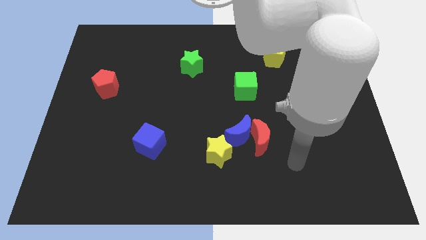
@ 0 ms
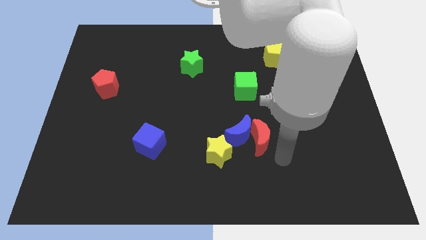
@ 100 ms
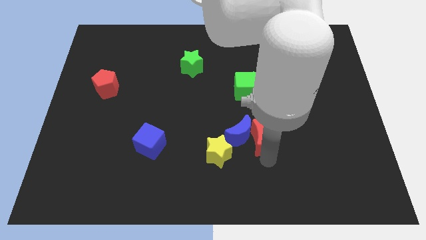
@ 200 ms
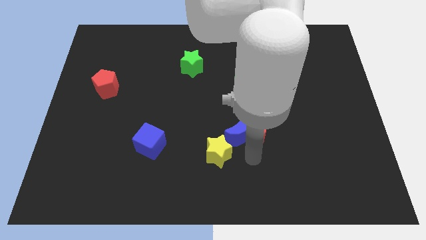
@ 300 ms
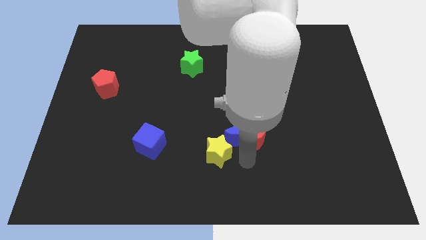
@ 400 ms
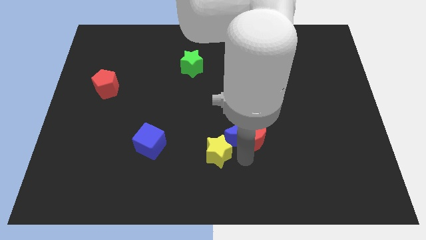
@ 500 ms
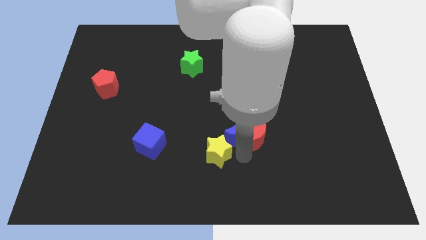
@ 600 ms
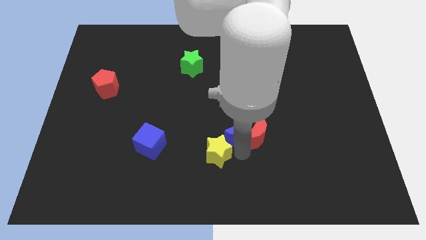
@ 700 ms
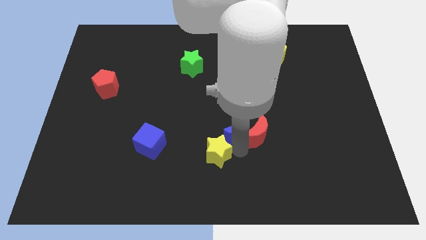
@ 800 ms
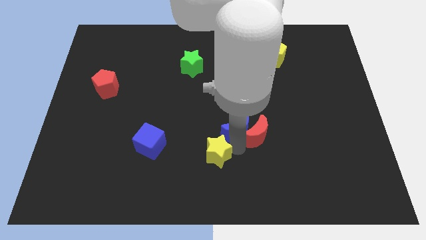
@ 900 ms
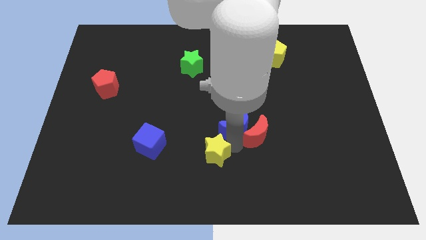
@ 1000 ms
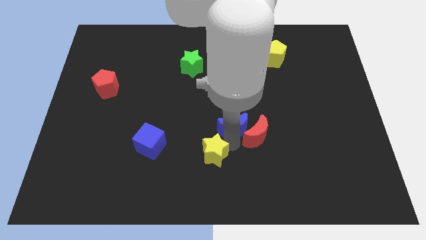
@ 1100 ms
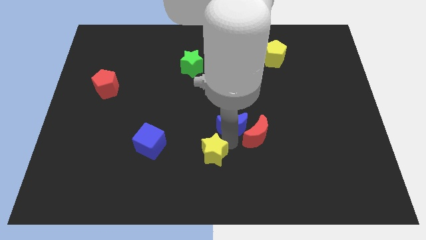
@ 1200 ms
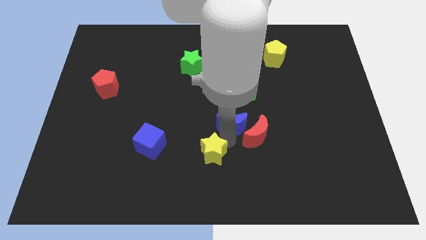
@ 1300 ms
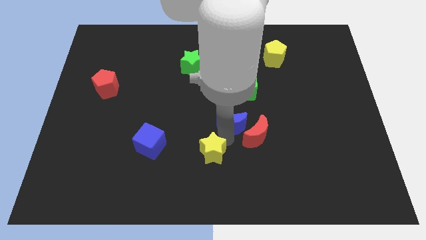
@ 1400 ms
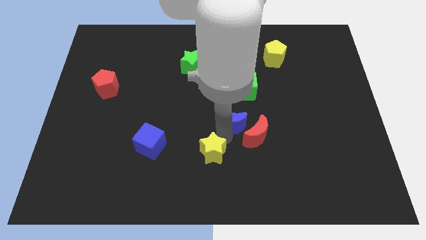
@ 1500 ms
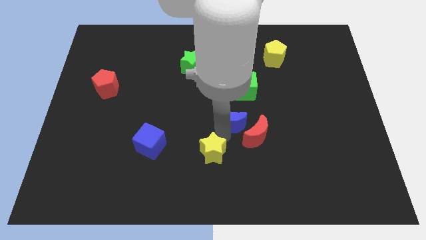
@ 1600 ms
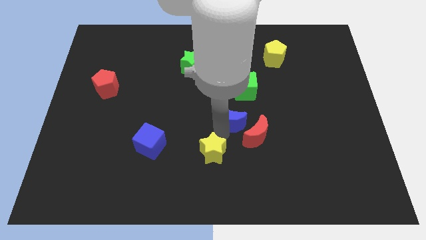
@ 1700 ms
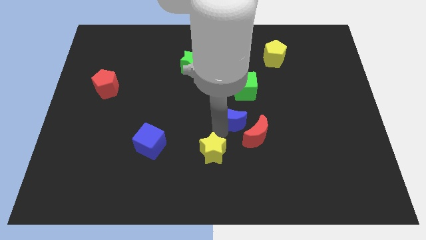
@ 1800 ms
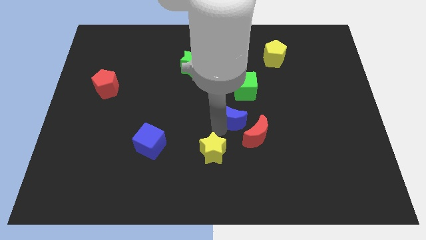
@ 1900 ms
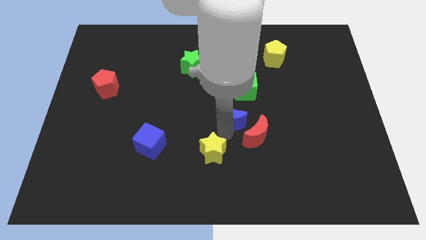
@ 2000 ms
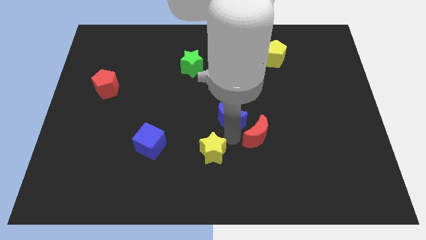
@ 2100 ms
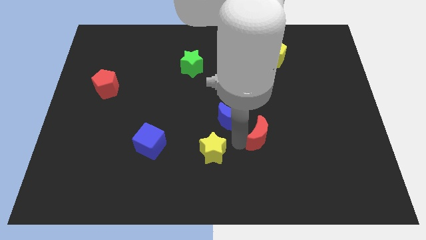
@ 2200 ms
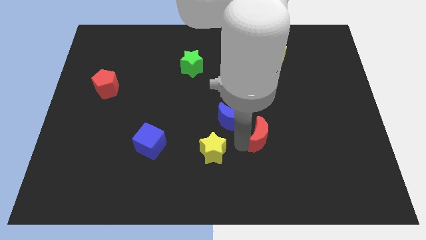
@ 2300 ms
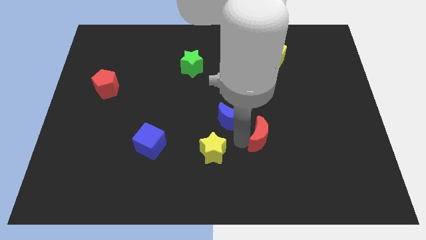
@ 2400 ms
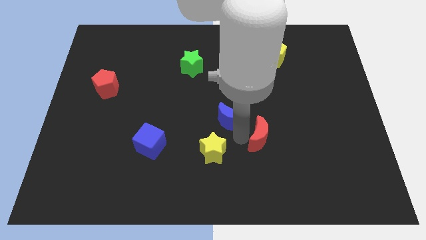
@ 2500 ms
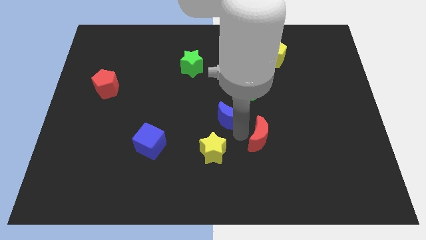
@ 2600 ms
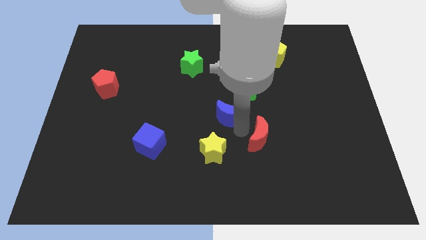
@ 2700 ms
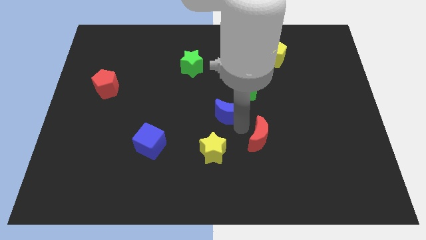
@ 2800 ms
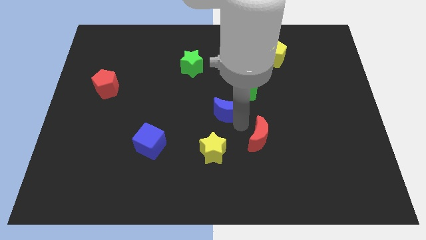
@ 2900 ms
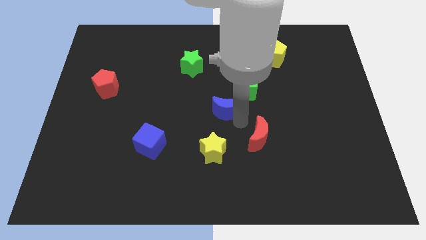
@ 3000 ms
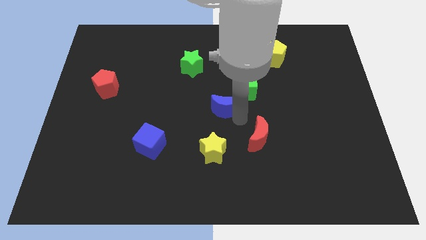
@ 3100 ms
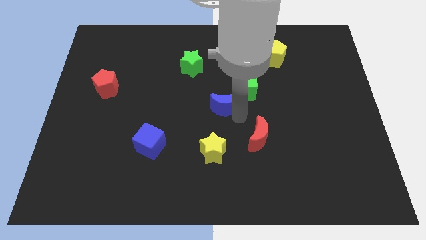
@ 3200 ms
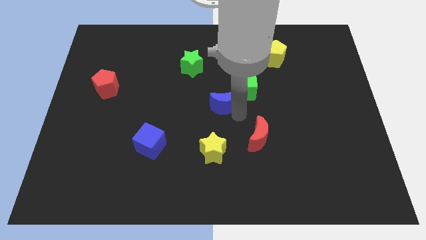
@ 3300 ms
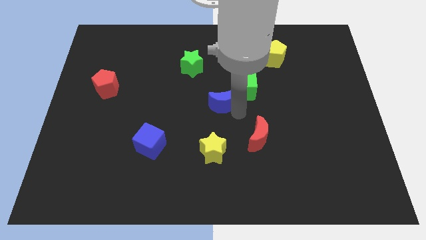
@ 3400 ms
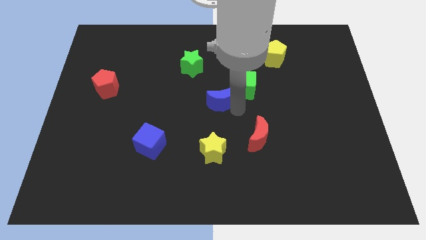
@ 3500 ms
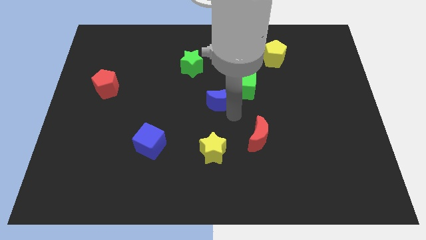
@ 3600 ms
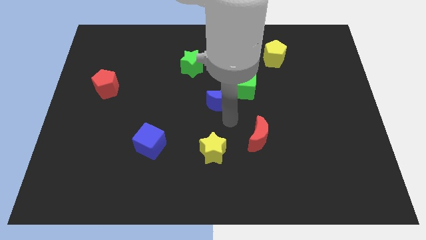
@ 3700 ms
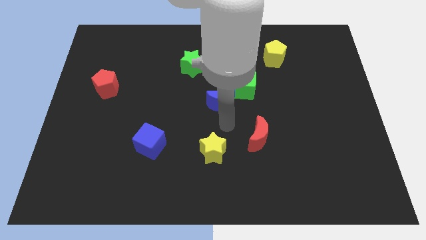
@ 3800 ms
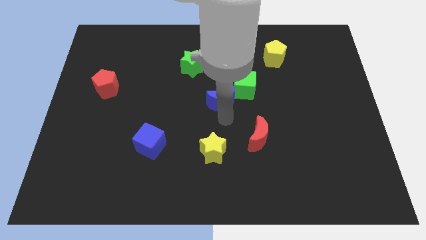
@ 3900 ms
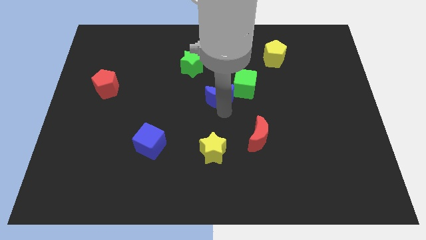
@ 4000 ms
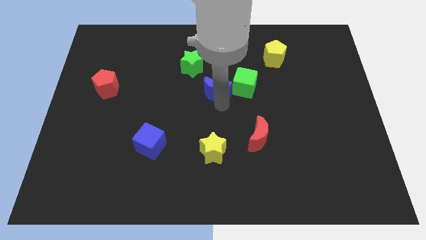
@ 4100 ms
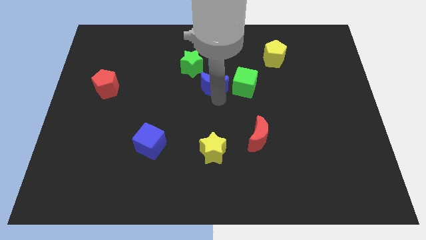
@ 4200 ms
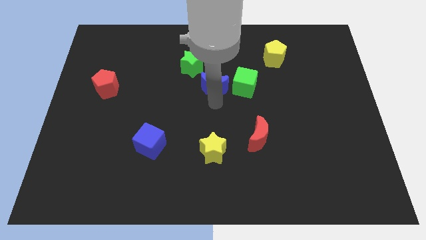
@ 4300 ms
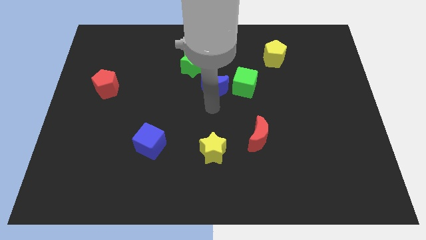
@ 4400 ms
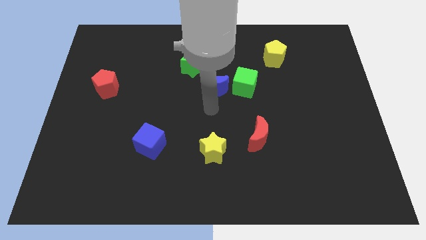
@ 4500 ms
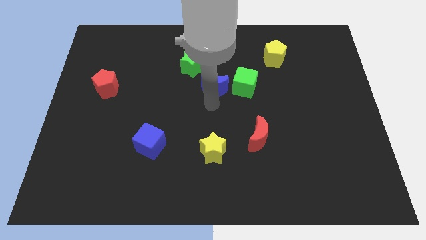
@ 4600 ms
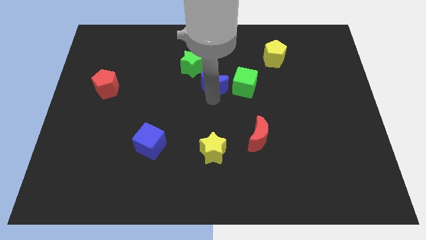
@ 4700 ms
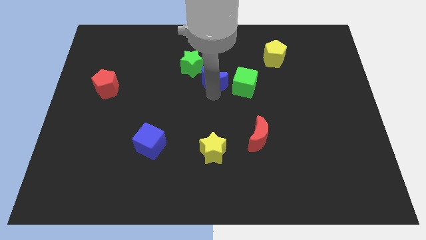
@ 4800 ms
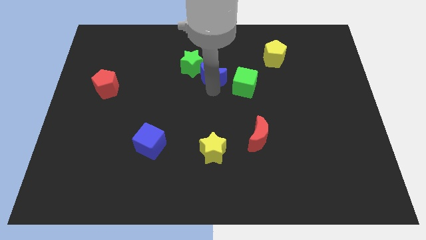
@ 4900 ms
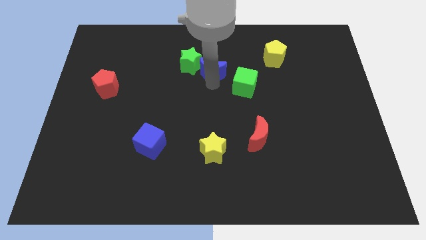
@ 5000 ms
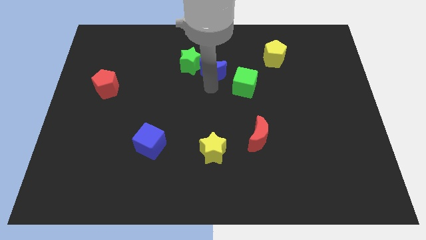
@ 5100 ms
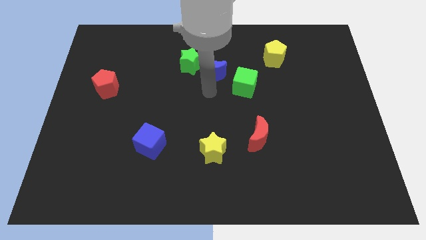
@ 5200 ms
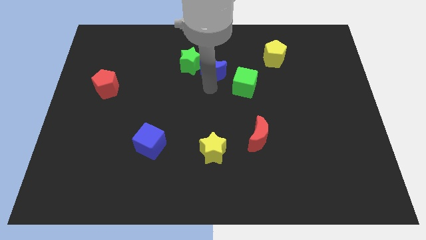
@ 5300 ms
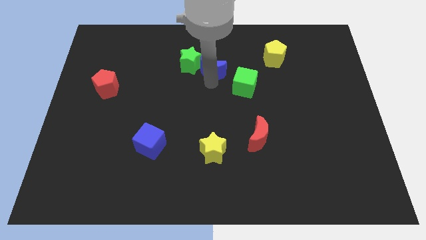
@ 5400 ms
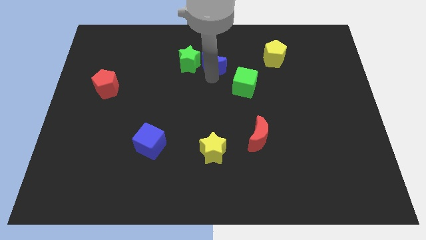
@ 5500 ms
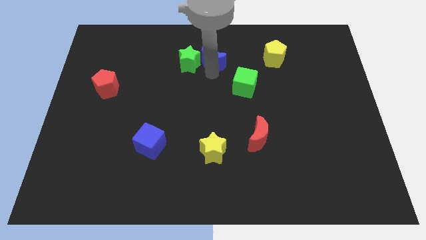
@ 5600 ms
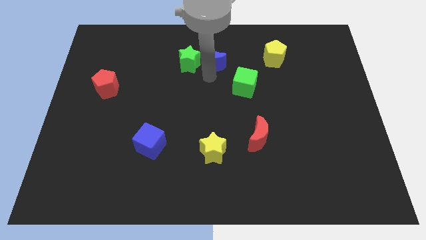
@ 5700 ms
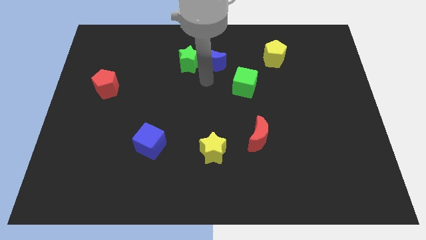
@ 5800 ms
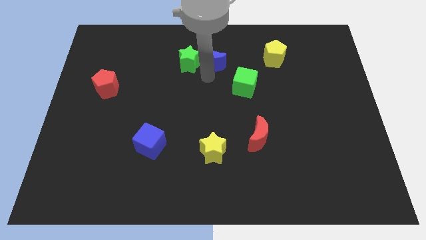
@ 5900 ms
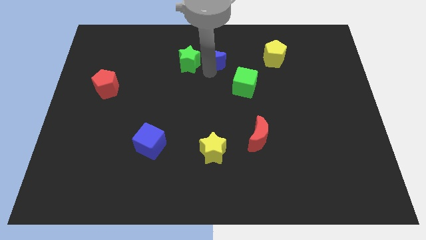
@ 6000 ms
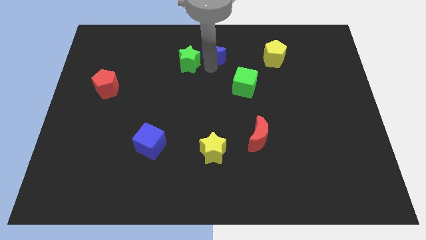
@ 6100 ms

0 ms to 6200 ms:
put the blue moon to the top side

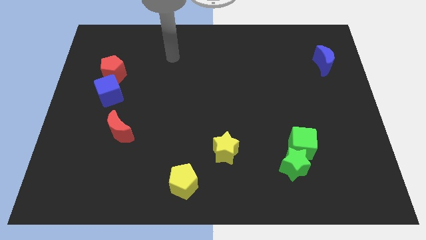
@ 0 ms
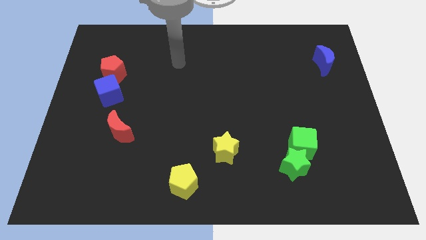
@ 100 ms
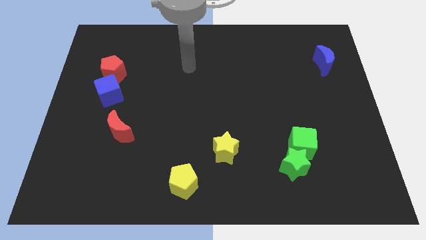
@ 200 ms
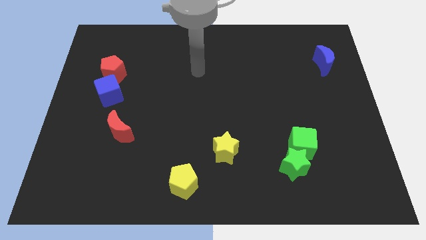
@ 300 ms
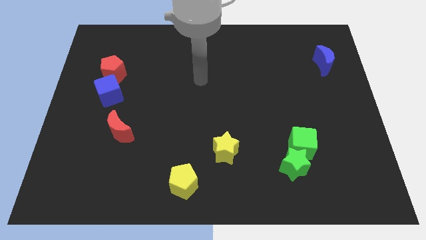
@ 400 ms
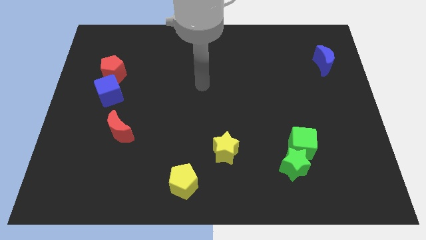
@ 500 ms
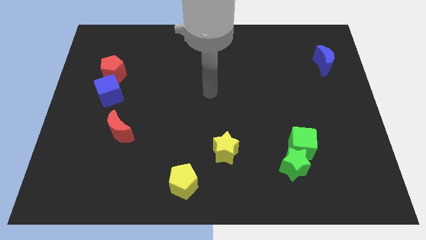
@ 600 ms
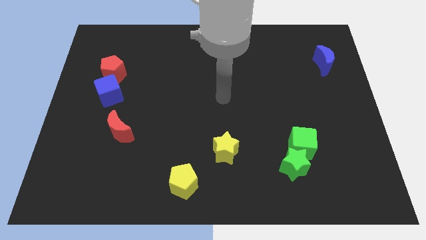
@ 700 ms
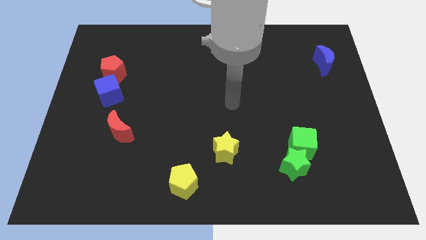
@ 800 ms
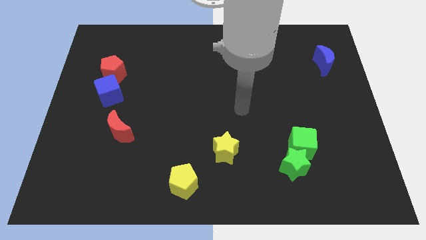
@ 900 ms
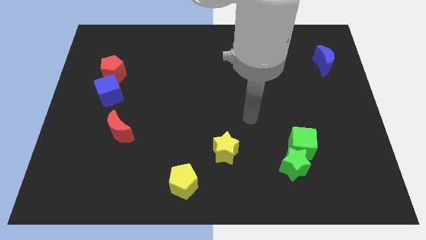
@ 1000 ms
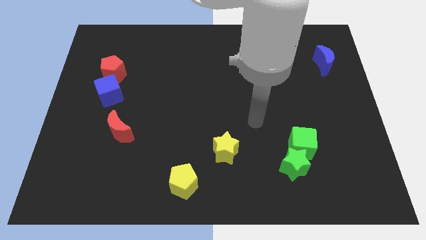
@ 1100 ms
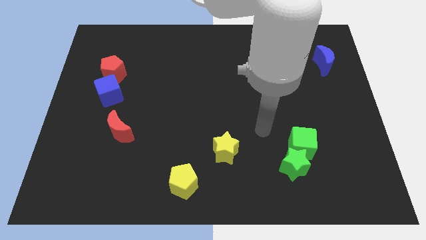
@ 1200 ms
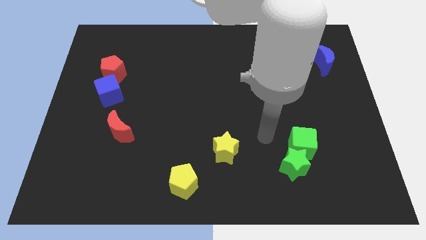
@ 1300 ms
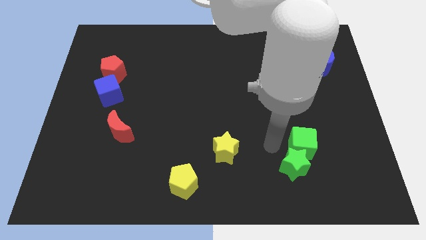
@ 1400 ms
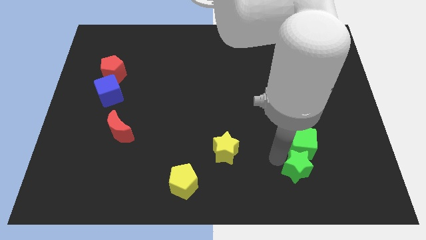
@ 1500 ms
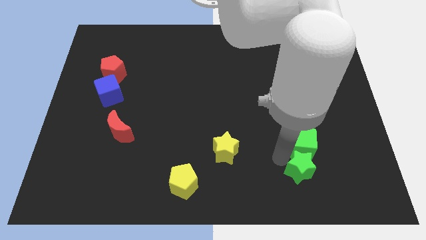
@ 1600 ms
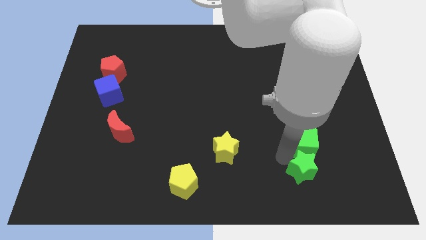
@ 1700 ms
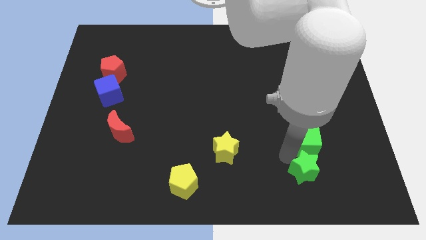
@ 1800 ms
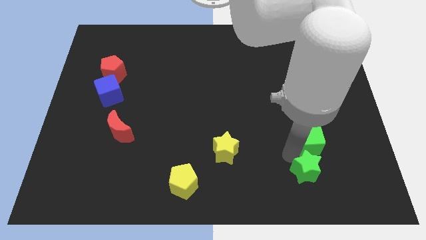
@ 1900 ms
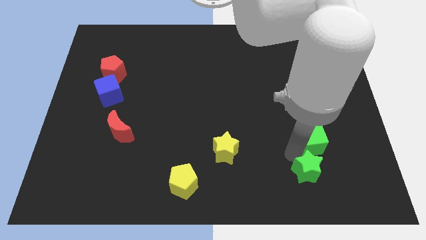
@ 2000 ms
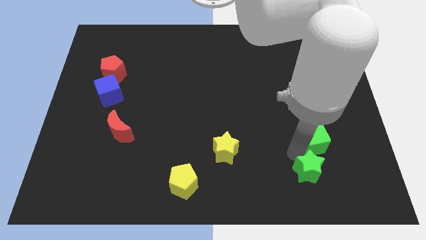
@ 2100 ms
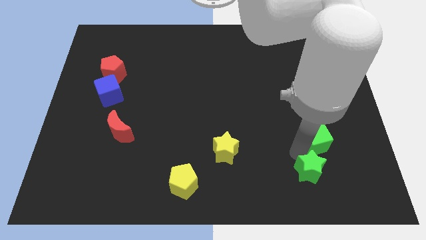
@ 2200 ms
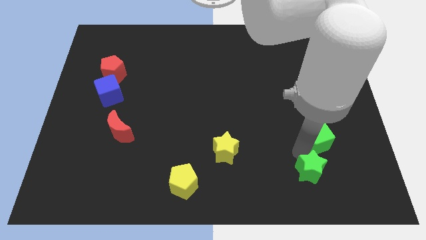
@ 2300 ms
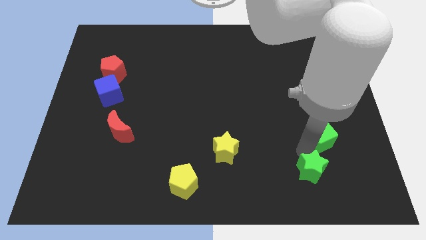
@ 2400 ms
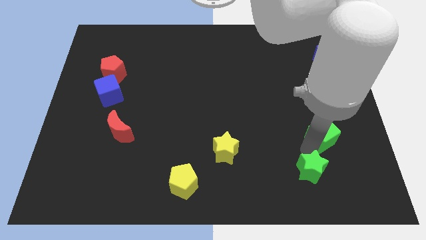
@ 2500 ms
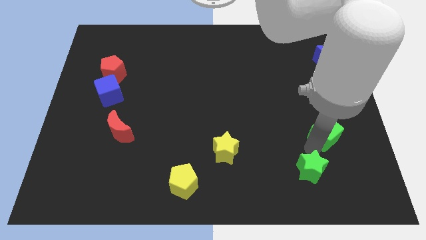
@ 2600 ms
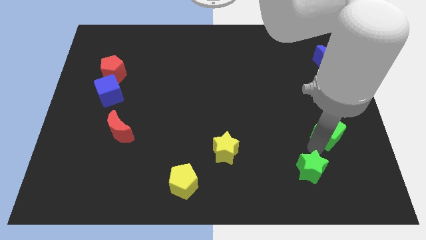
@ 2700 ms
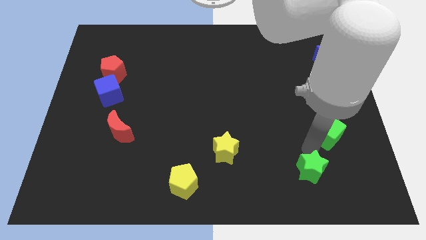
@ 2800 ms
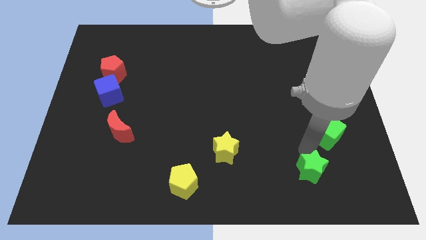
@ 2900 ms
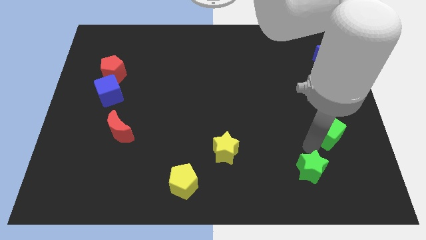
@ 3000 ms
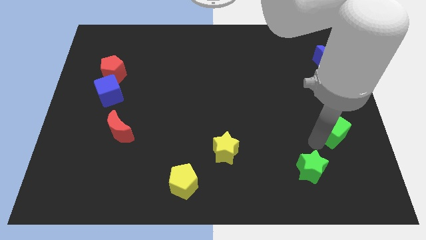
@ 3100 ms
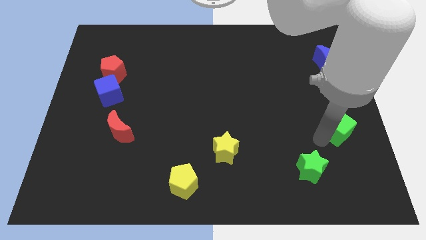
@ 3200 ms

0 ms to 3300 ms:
push the green cube to the center right
